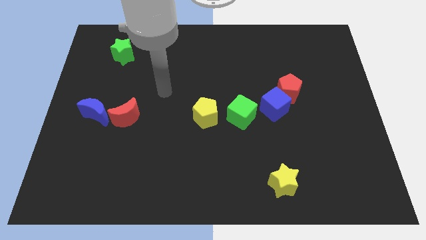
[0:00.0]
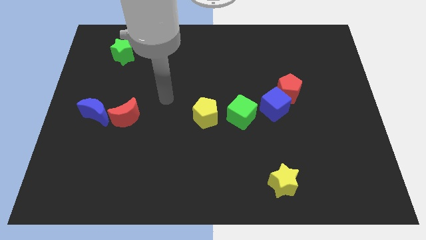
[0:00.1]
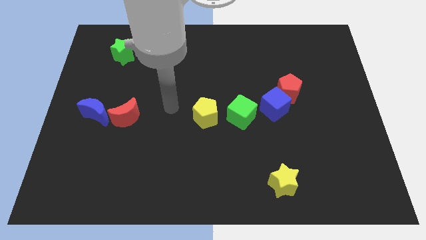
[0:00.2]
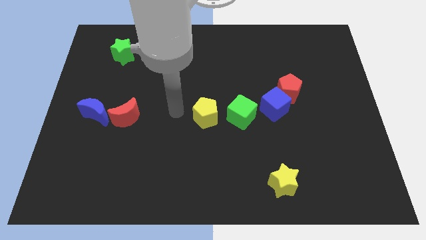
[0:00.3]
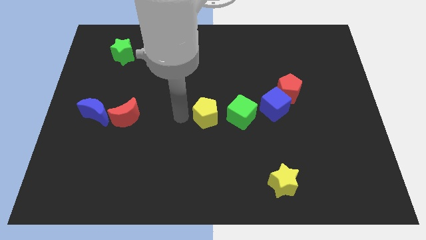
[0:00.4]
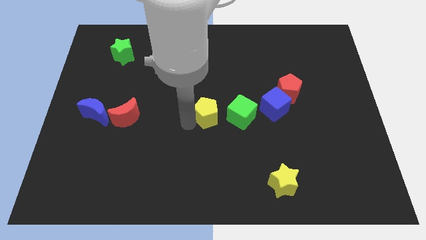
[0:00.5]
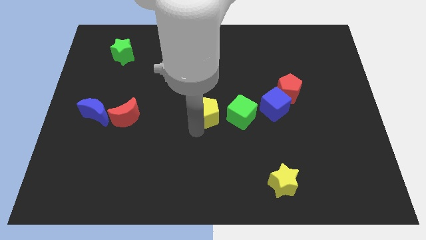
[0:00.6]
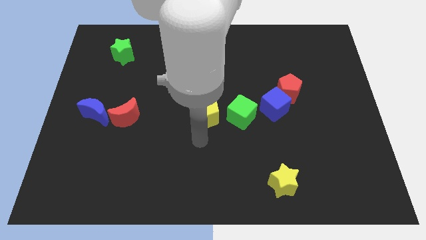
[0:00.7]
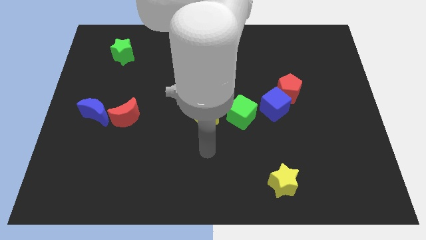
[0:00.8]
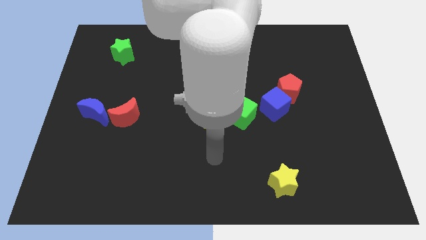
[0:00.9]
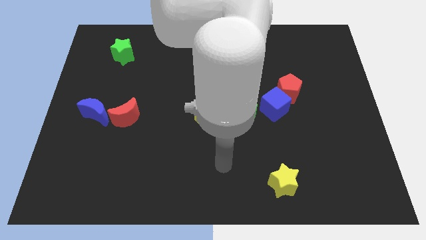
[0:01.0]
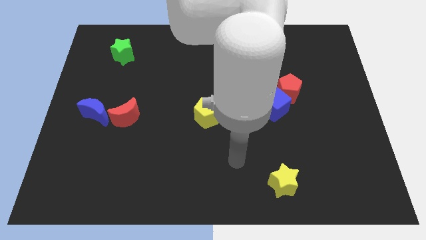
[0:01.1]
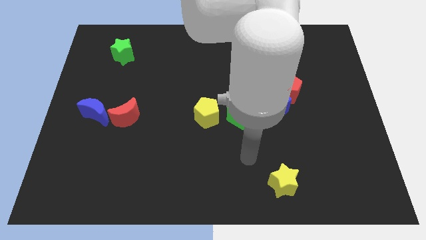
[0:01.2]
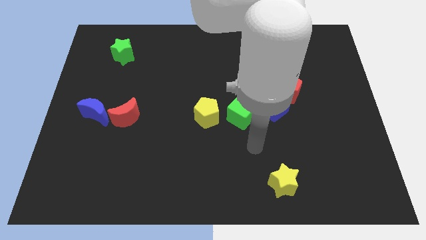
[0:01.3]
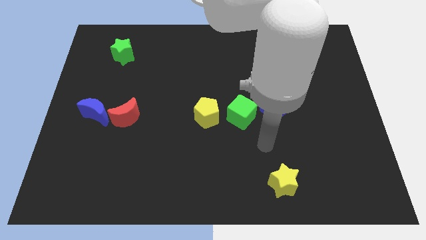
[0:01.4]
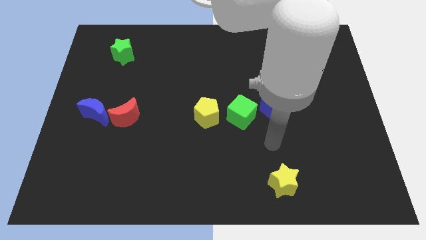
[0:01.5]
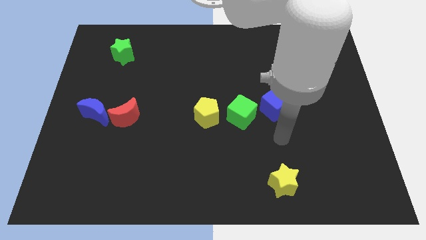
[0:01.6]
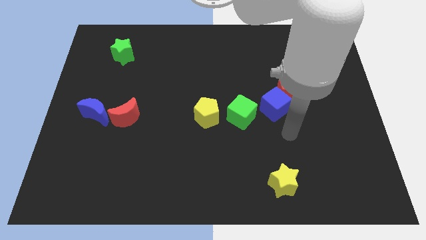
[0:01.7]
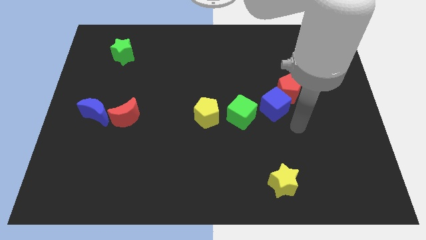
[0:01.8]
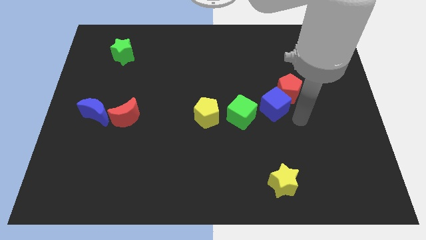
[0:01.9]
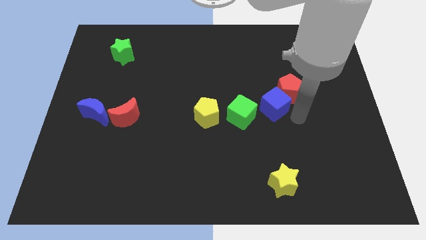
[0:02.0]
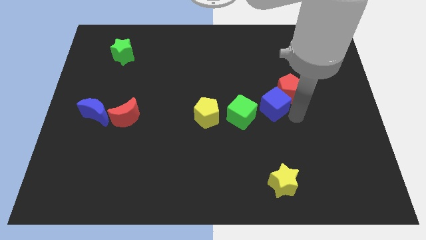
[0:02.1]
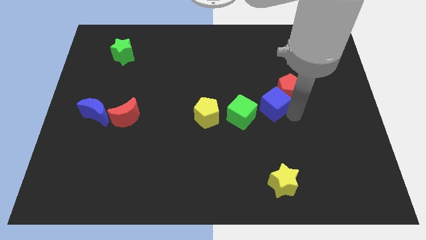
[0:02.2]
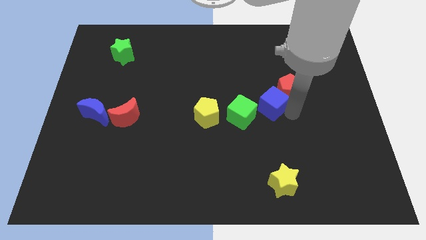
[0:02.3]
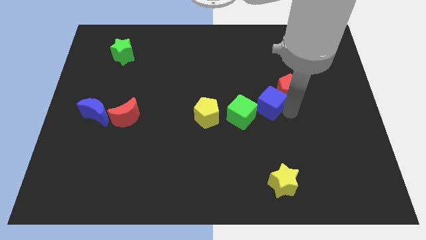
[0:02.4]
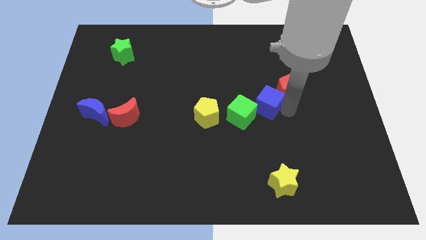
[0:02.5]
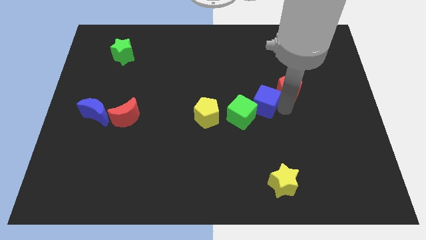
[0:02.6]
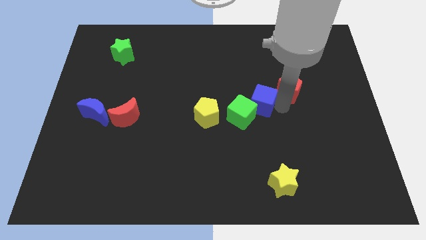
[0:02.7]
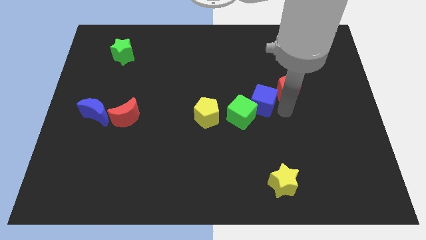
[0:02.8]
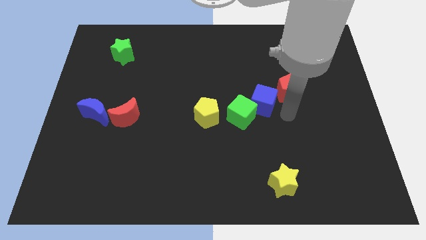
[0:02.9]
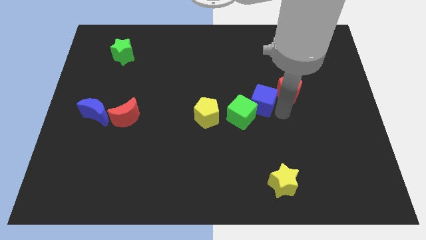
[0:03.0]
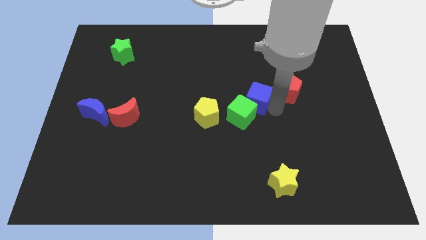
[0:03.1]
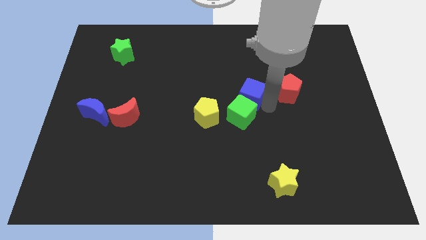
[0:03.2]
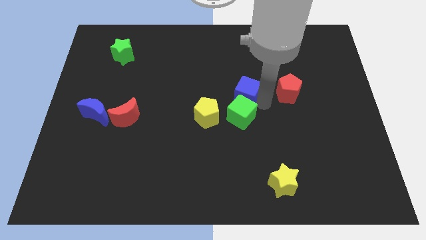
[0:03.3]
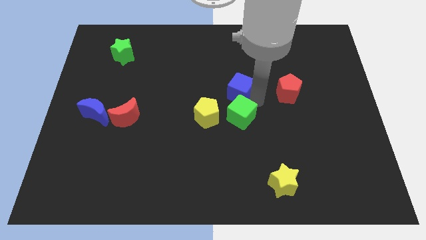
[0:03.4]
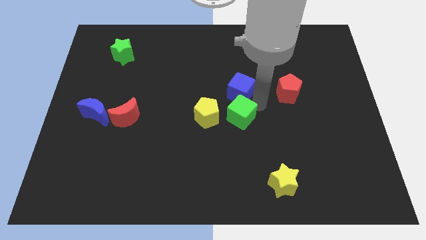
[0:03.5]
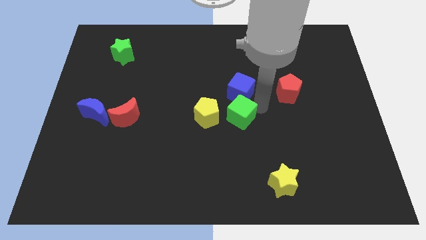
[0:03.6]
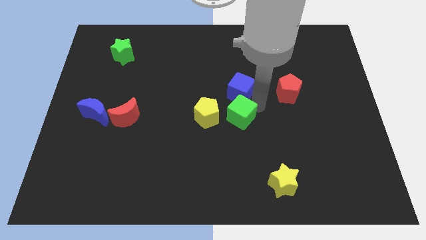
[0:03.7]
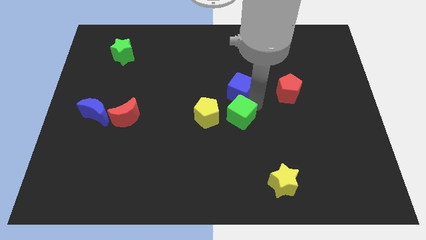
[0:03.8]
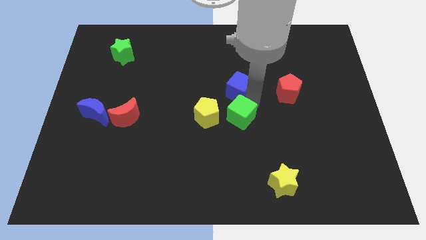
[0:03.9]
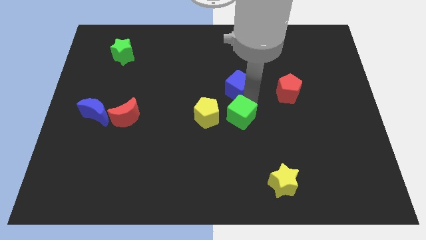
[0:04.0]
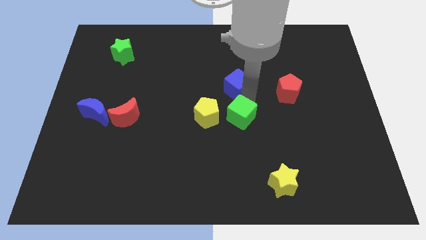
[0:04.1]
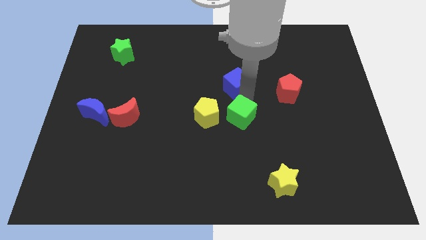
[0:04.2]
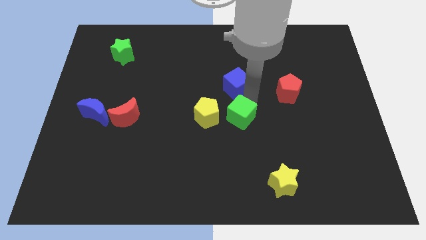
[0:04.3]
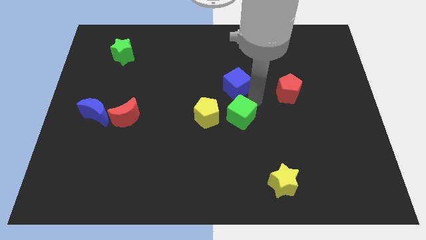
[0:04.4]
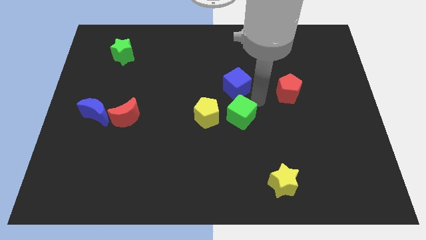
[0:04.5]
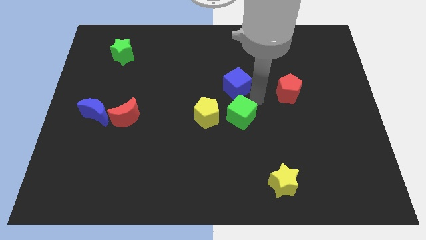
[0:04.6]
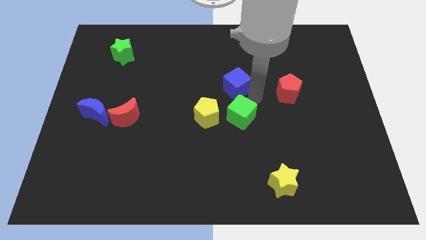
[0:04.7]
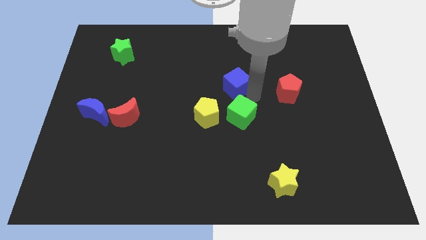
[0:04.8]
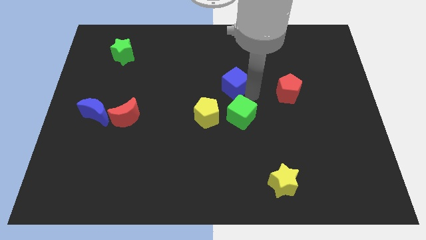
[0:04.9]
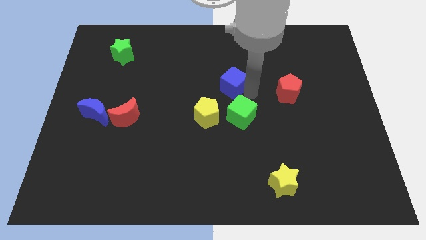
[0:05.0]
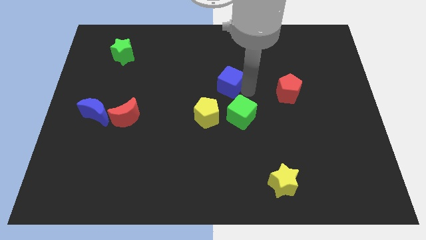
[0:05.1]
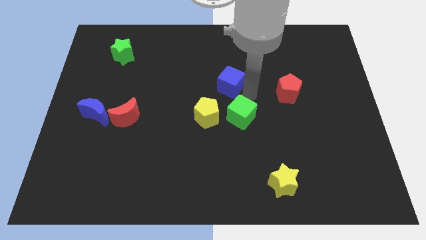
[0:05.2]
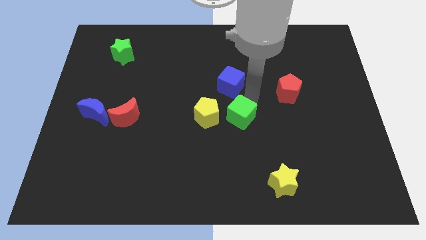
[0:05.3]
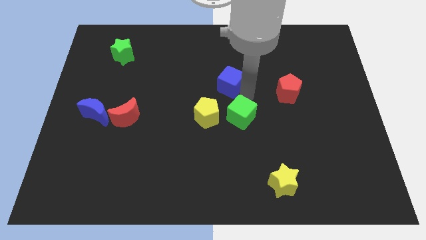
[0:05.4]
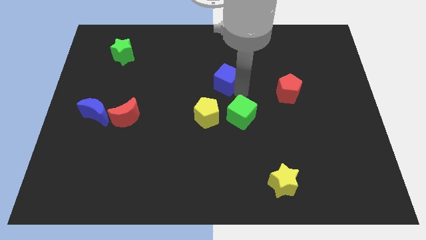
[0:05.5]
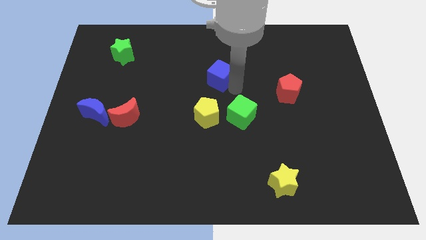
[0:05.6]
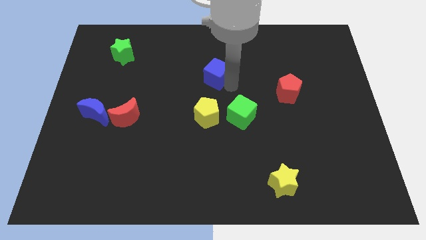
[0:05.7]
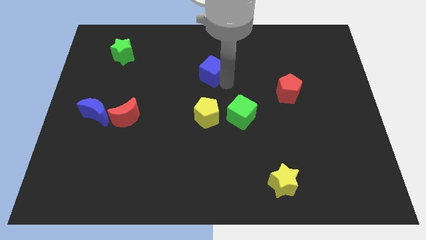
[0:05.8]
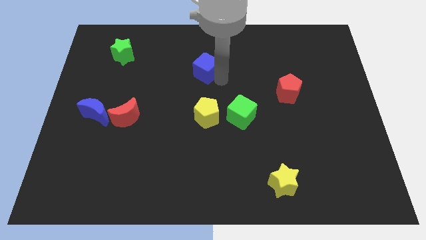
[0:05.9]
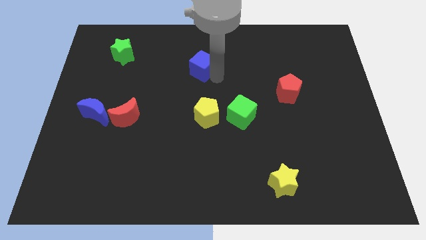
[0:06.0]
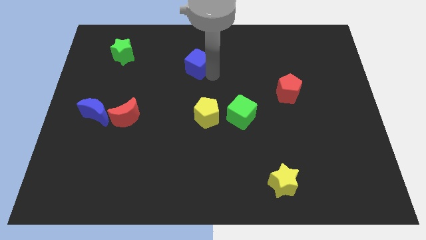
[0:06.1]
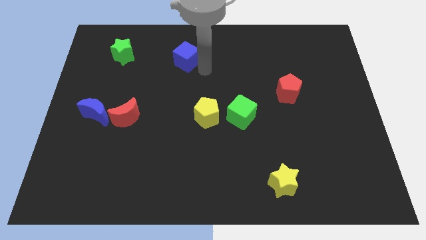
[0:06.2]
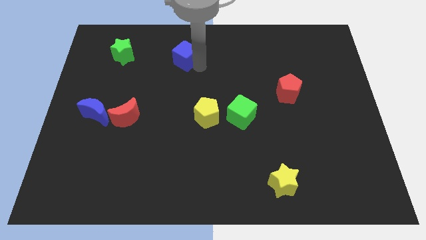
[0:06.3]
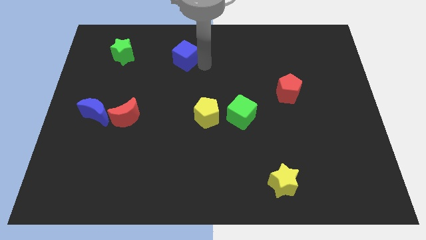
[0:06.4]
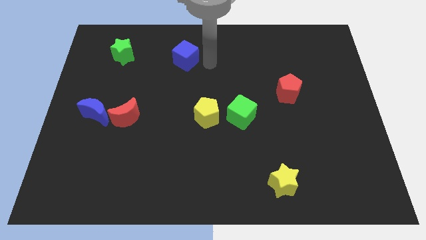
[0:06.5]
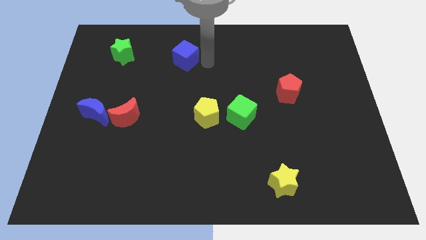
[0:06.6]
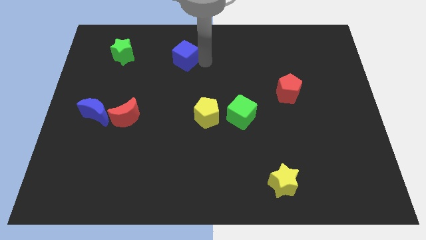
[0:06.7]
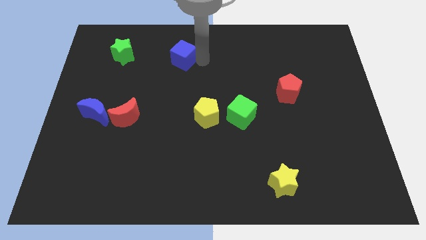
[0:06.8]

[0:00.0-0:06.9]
slide the blue cube right of the green star

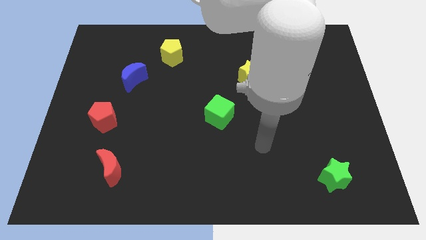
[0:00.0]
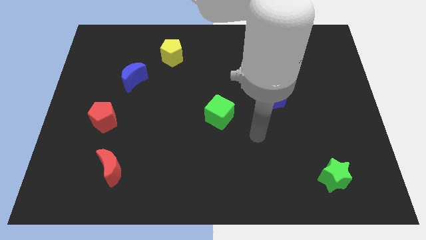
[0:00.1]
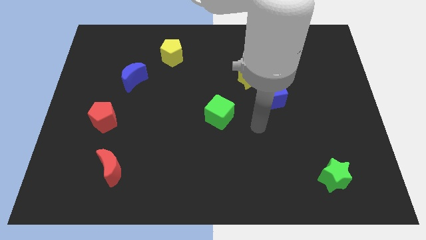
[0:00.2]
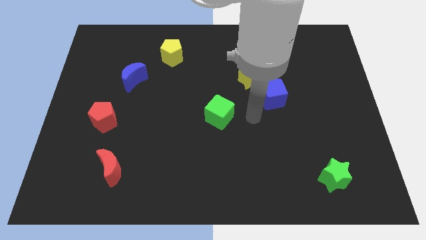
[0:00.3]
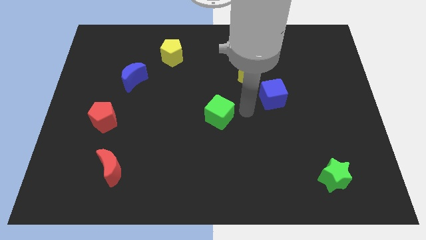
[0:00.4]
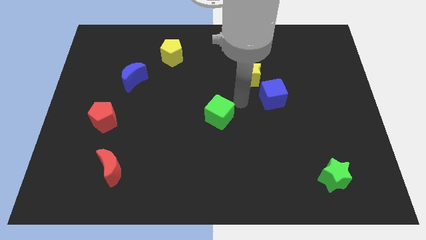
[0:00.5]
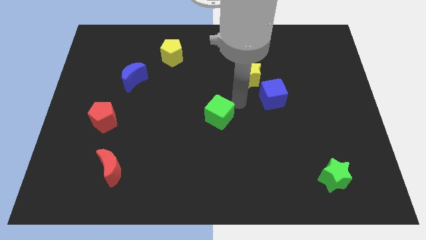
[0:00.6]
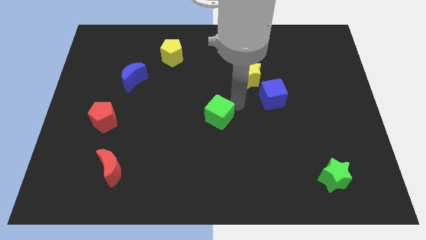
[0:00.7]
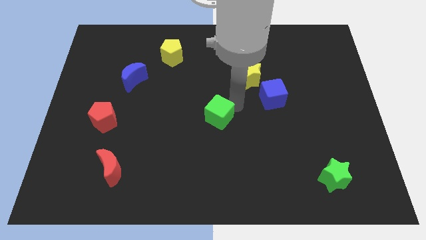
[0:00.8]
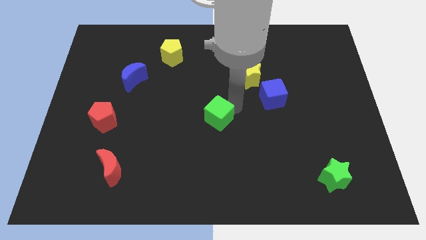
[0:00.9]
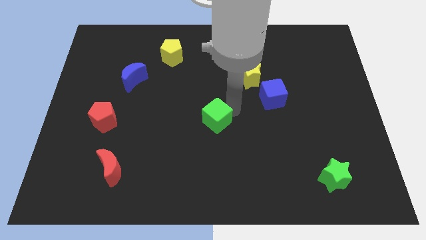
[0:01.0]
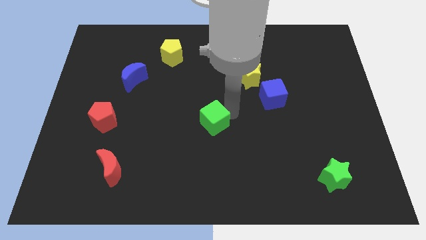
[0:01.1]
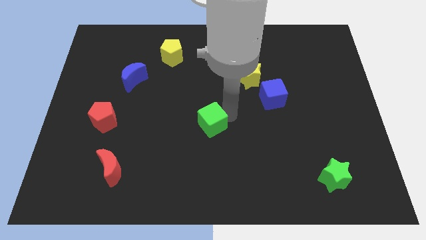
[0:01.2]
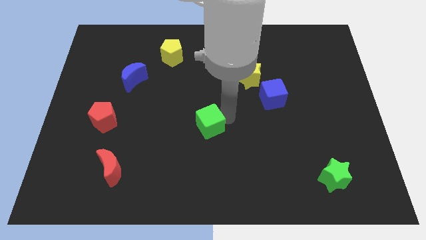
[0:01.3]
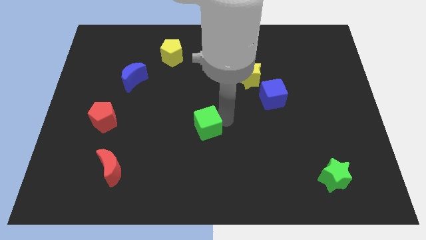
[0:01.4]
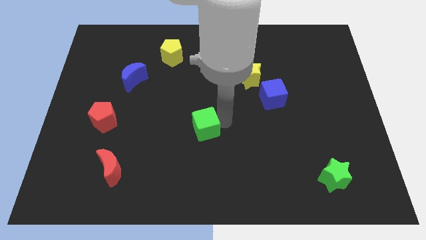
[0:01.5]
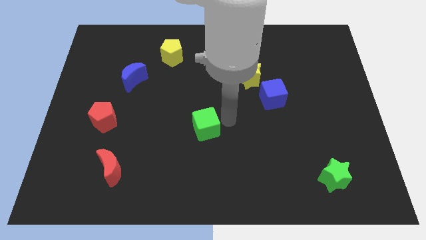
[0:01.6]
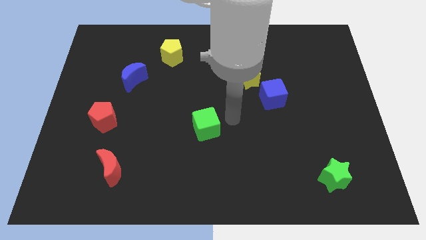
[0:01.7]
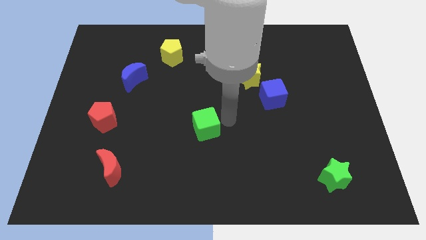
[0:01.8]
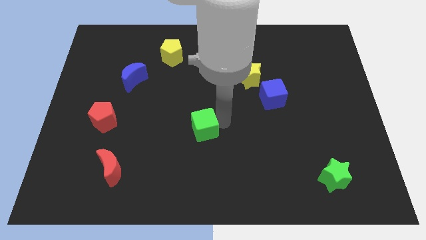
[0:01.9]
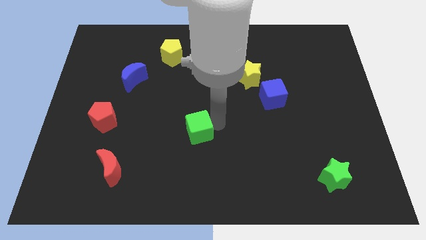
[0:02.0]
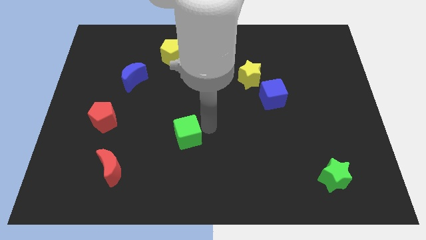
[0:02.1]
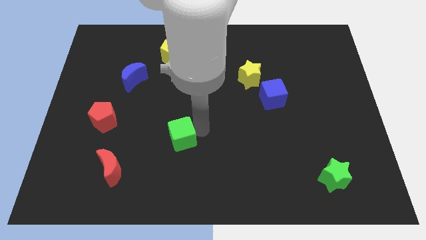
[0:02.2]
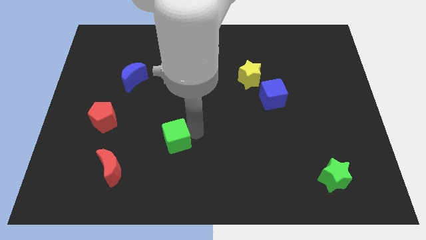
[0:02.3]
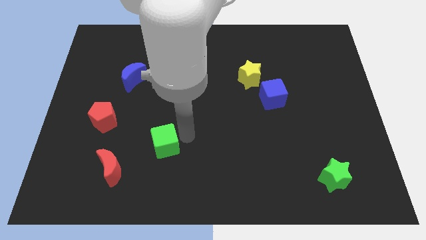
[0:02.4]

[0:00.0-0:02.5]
push the green cube diagonally up and to the right of the red moon
